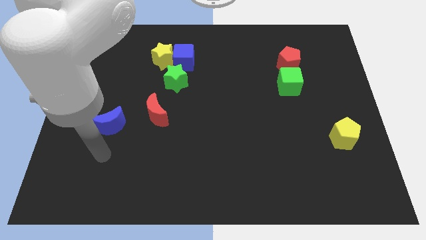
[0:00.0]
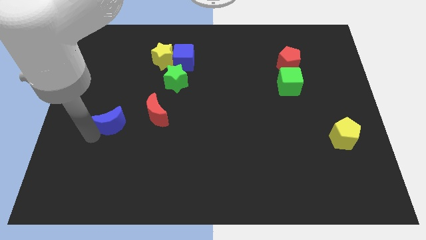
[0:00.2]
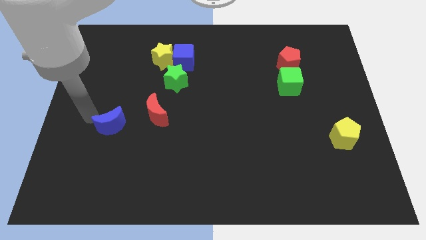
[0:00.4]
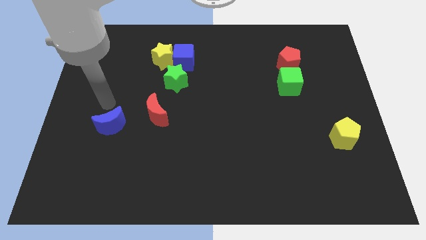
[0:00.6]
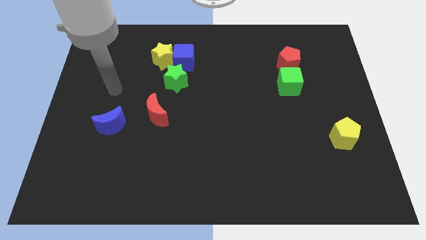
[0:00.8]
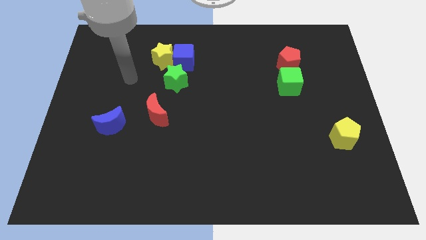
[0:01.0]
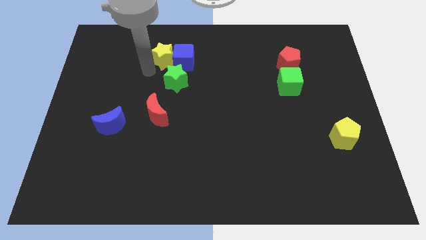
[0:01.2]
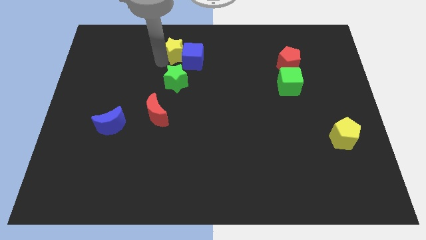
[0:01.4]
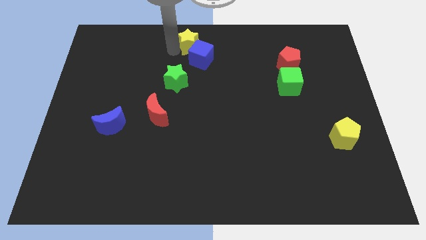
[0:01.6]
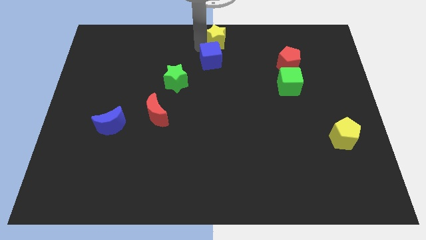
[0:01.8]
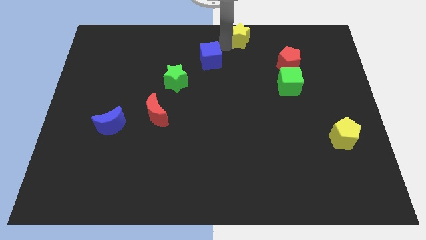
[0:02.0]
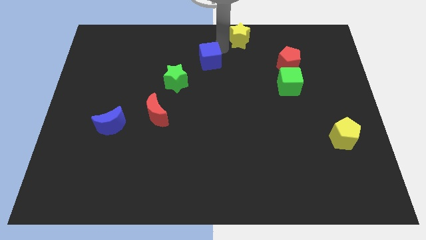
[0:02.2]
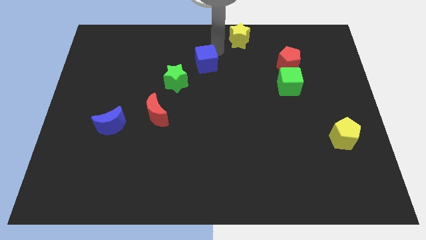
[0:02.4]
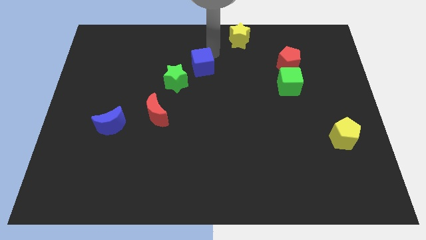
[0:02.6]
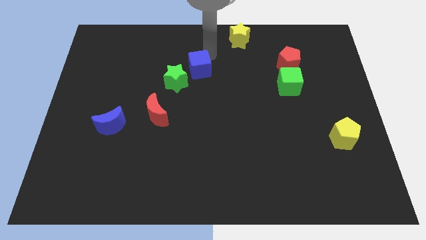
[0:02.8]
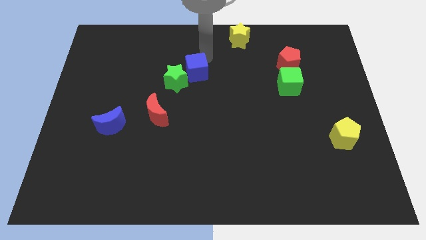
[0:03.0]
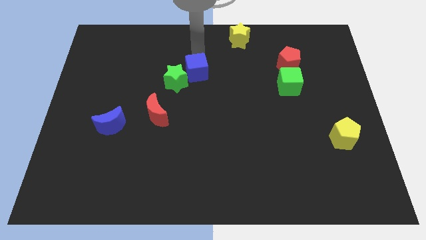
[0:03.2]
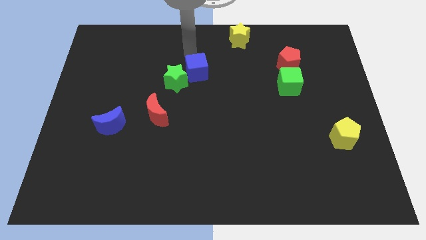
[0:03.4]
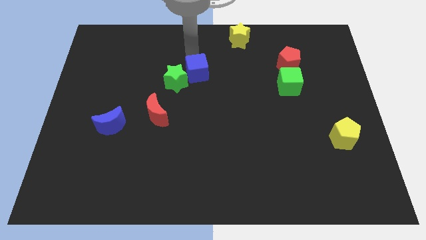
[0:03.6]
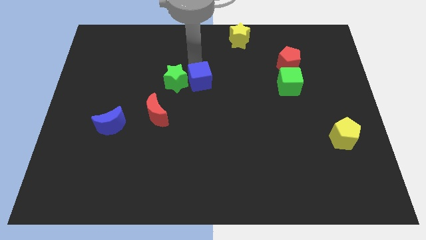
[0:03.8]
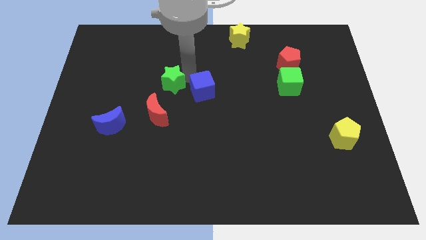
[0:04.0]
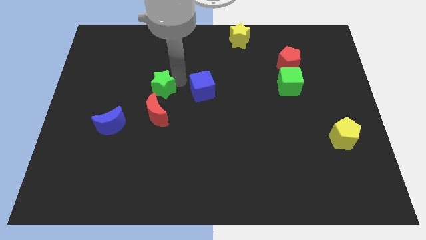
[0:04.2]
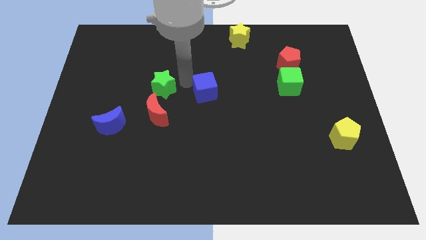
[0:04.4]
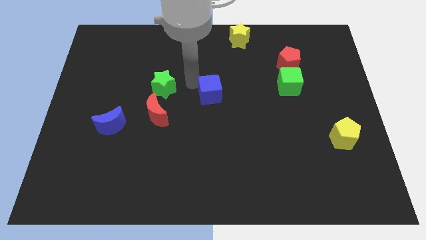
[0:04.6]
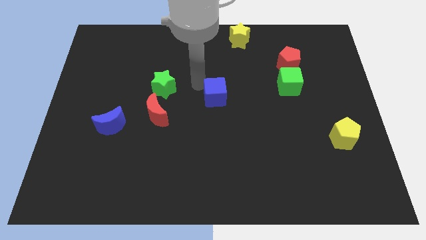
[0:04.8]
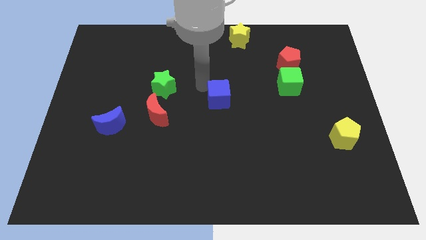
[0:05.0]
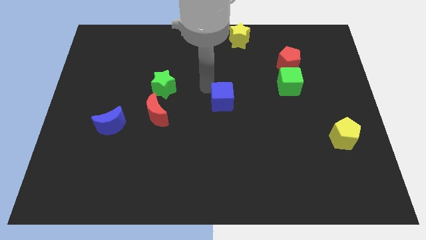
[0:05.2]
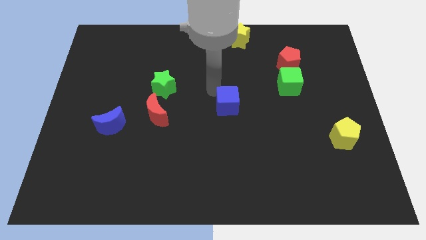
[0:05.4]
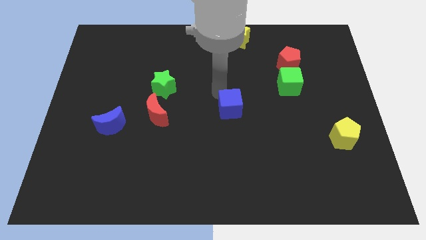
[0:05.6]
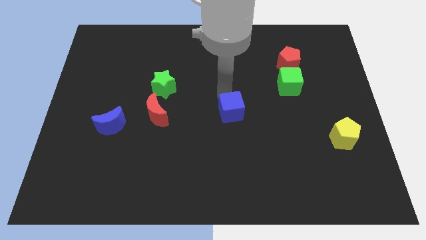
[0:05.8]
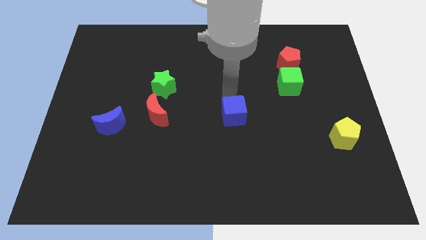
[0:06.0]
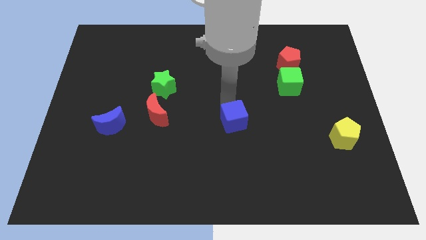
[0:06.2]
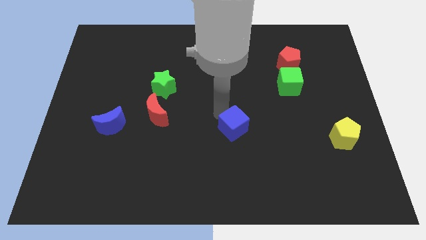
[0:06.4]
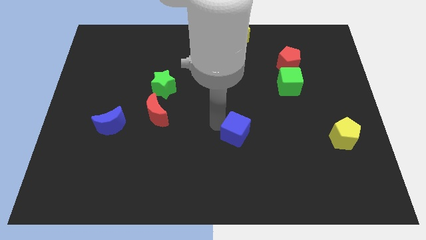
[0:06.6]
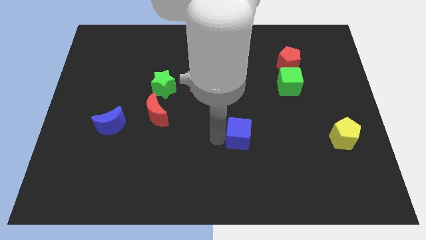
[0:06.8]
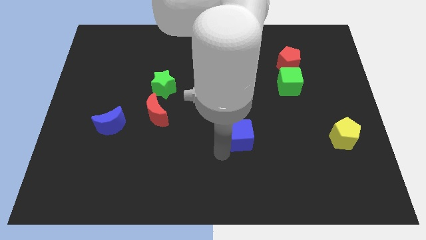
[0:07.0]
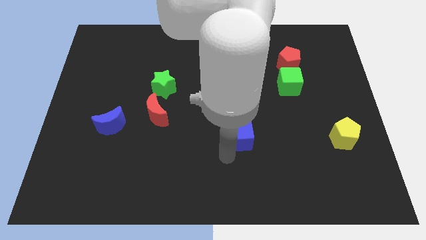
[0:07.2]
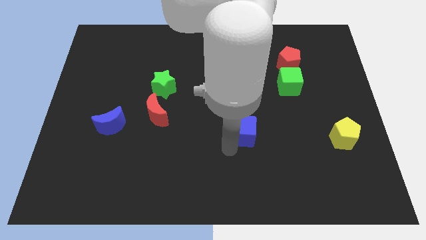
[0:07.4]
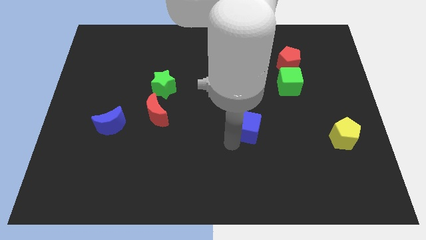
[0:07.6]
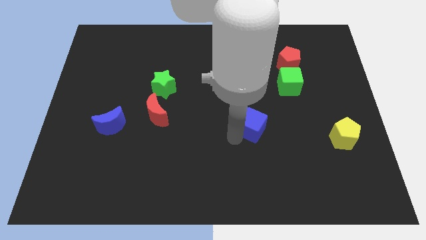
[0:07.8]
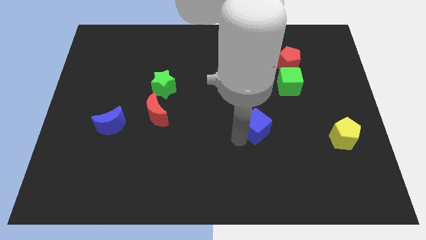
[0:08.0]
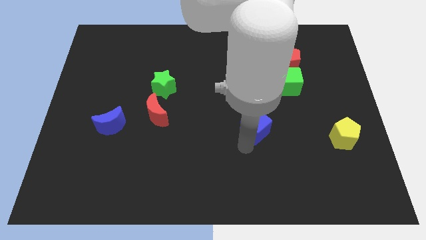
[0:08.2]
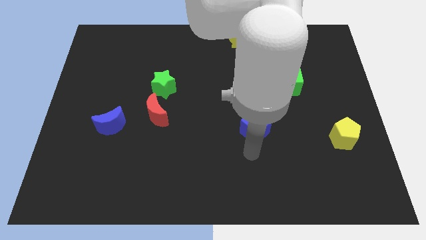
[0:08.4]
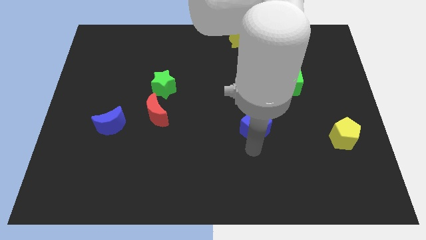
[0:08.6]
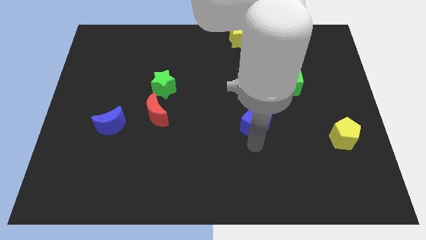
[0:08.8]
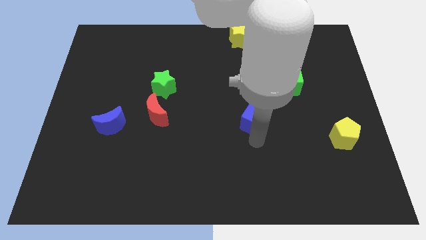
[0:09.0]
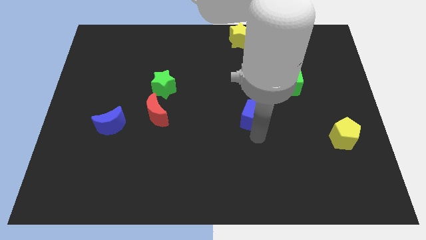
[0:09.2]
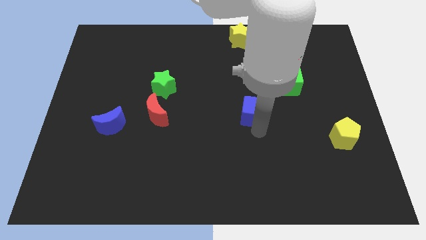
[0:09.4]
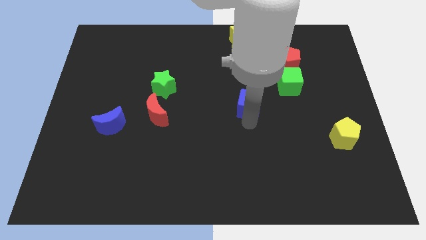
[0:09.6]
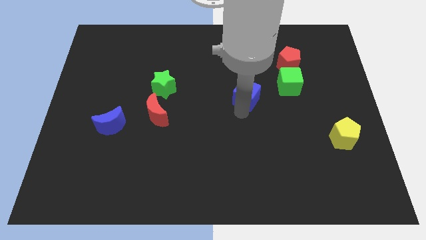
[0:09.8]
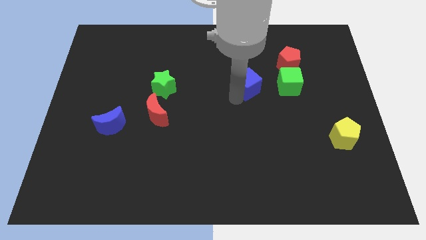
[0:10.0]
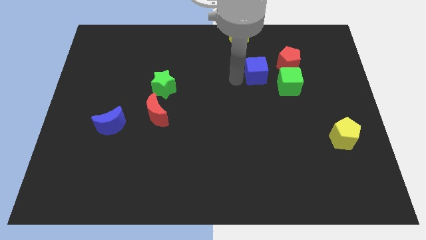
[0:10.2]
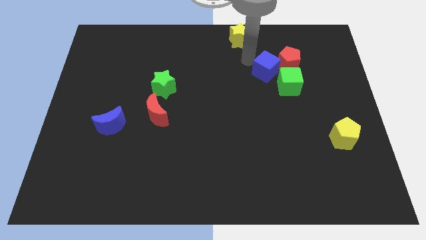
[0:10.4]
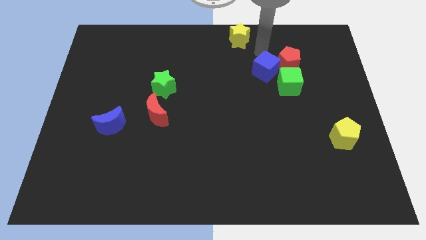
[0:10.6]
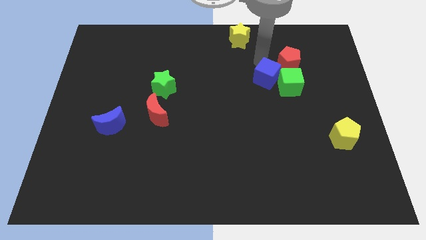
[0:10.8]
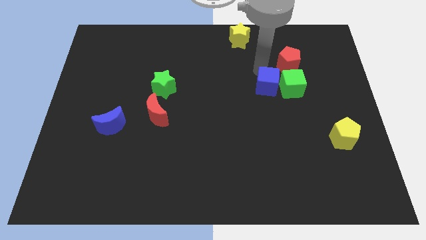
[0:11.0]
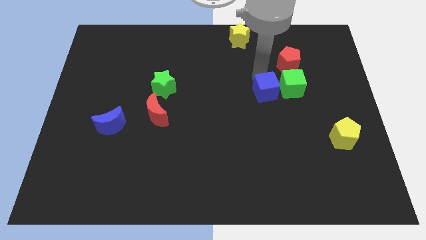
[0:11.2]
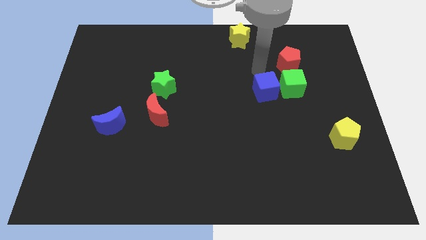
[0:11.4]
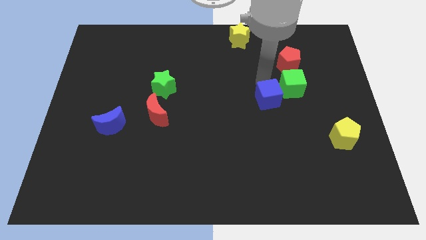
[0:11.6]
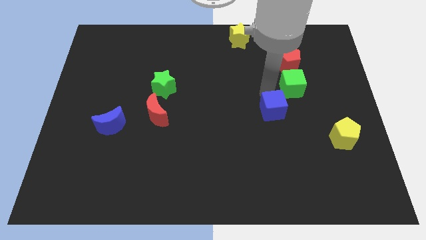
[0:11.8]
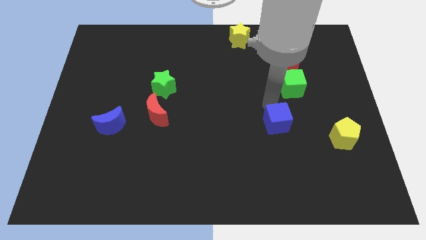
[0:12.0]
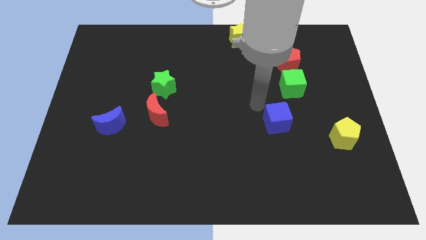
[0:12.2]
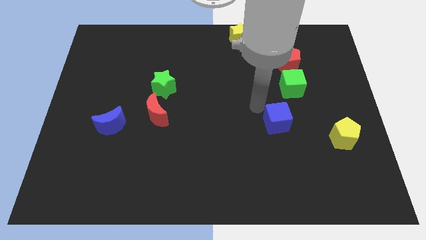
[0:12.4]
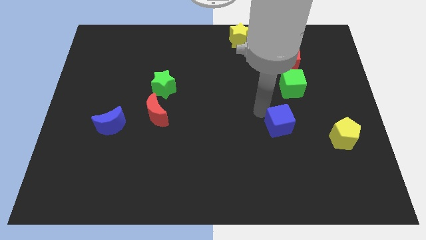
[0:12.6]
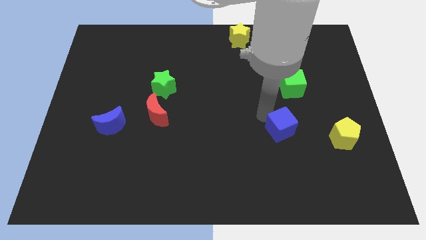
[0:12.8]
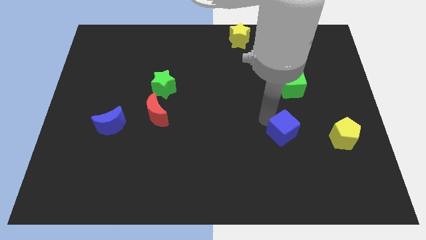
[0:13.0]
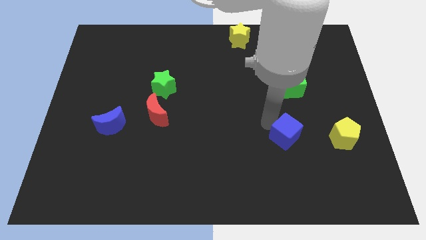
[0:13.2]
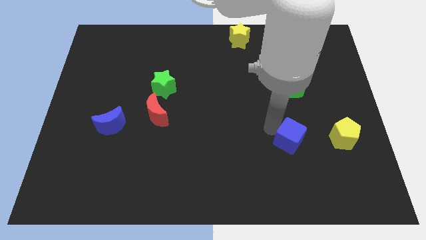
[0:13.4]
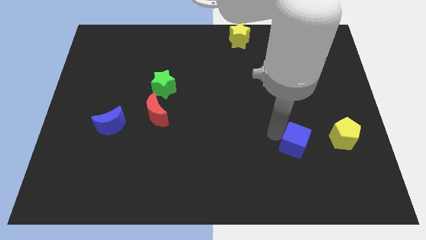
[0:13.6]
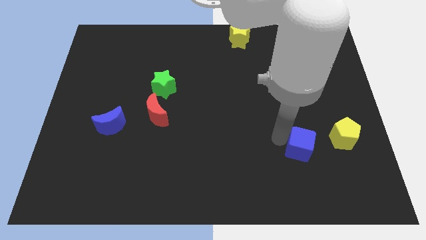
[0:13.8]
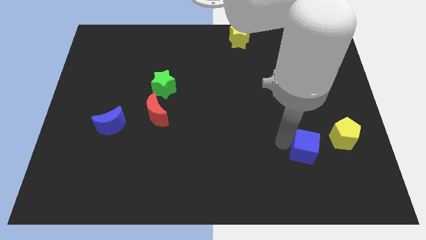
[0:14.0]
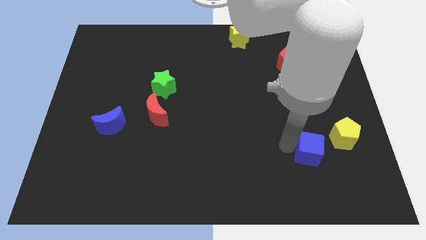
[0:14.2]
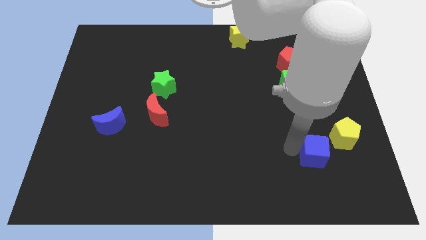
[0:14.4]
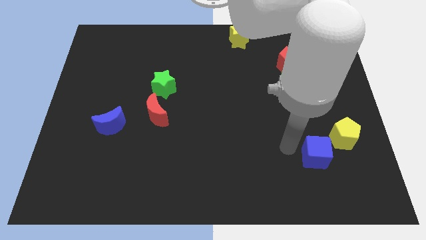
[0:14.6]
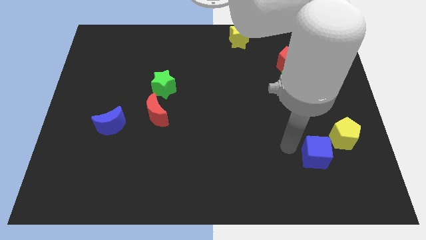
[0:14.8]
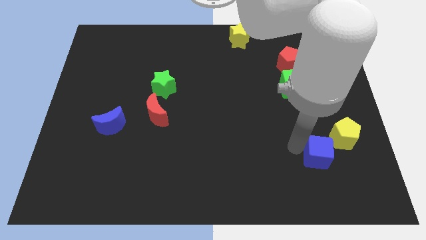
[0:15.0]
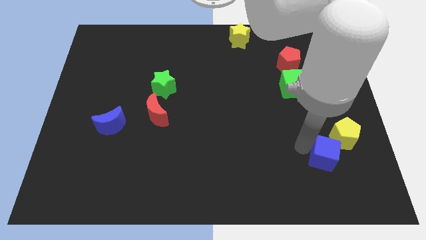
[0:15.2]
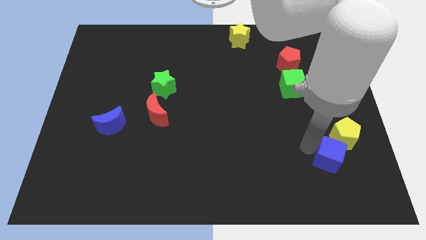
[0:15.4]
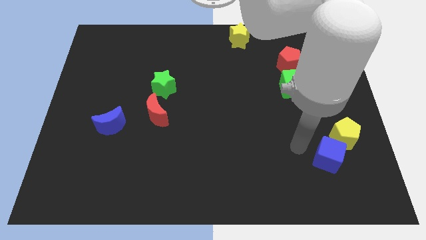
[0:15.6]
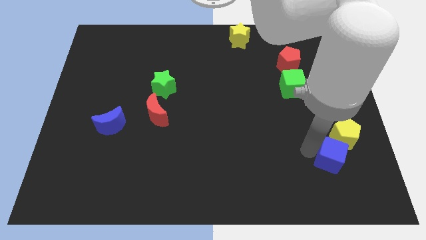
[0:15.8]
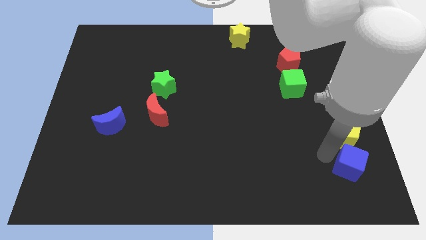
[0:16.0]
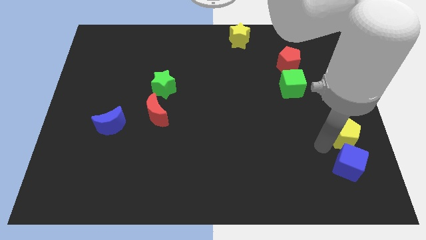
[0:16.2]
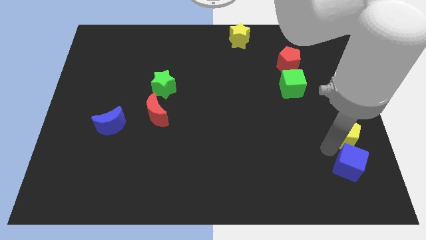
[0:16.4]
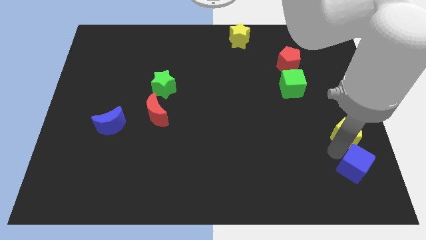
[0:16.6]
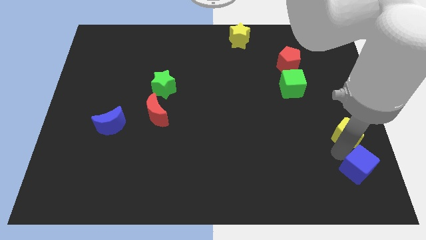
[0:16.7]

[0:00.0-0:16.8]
move the blue cube to the bottom right corner
